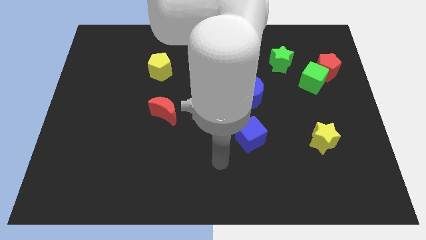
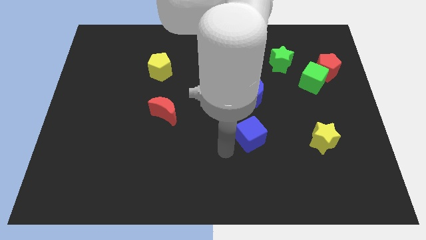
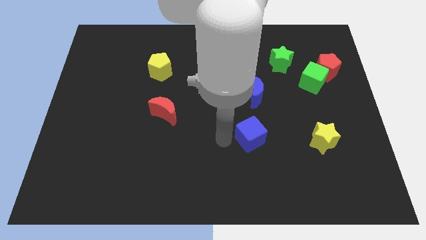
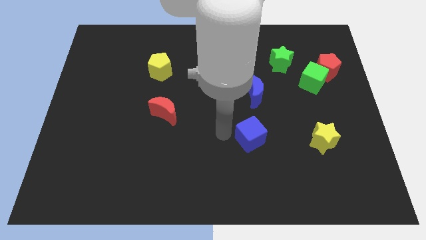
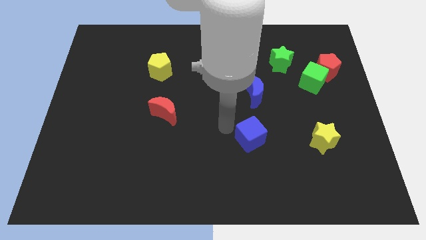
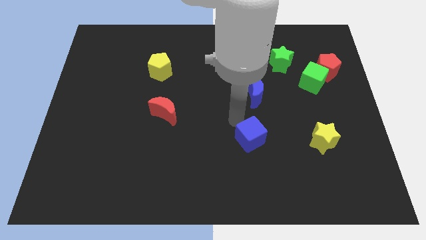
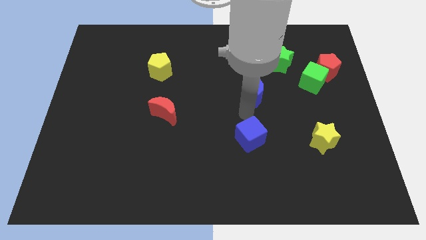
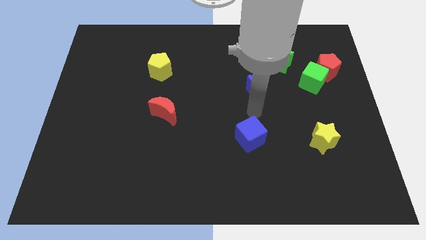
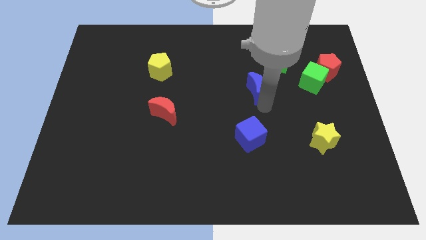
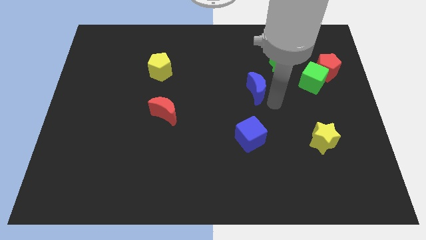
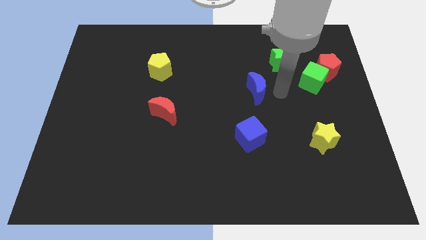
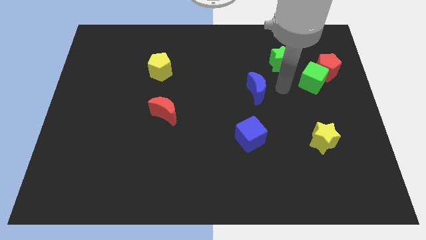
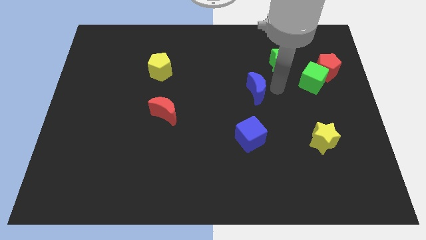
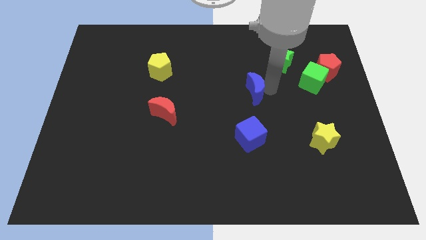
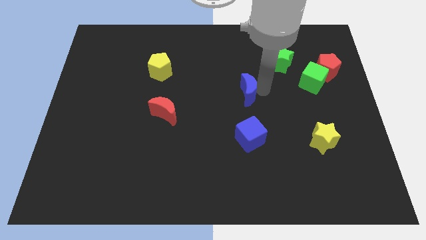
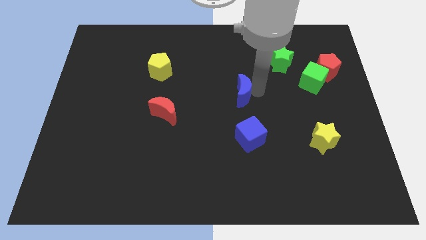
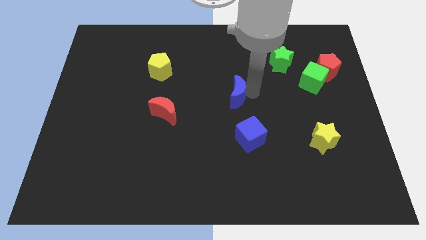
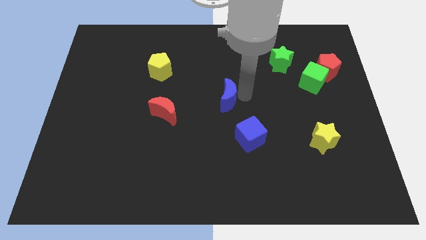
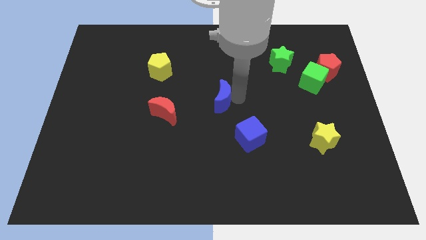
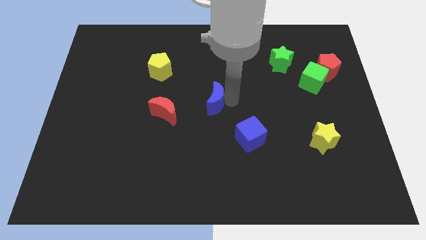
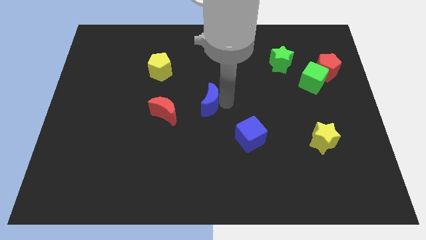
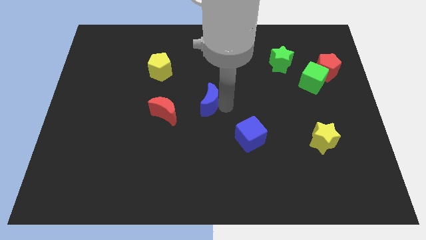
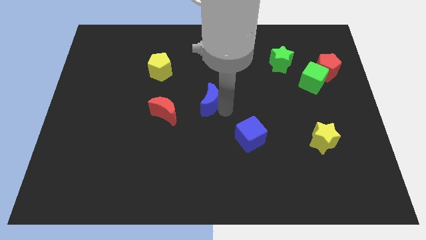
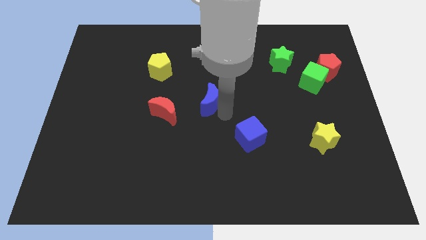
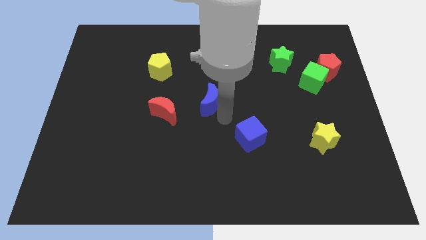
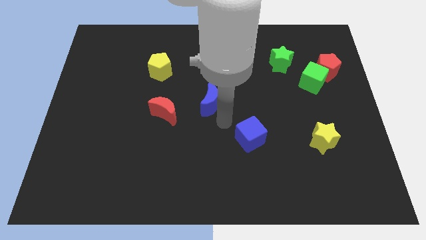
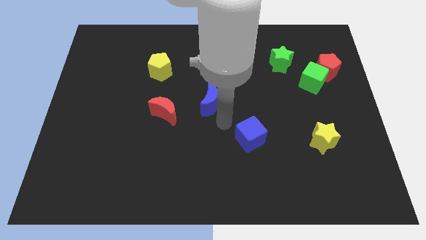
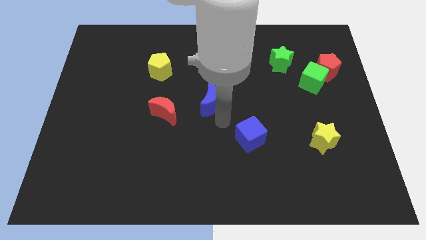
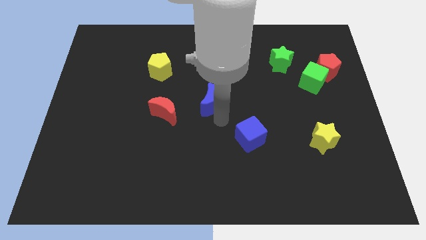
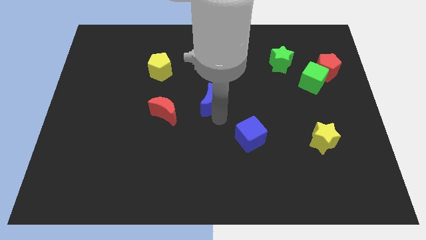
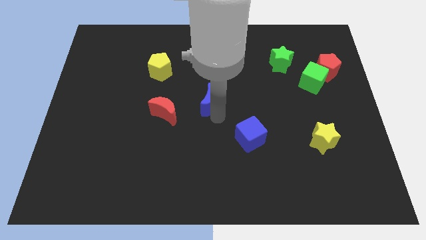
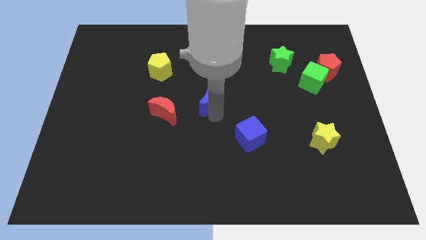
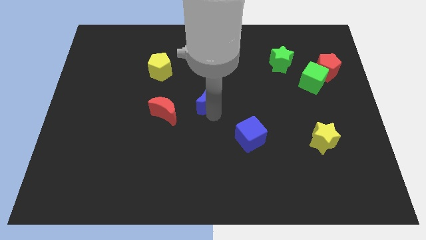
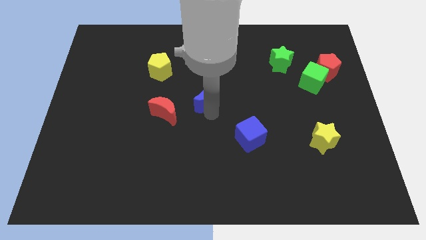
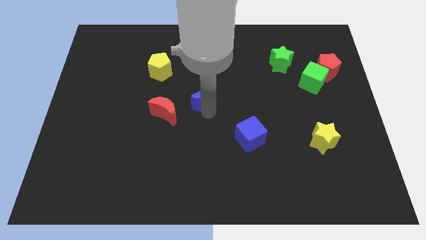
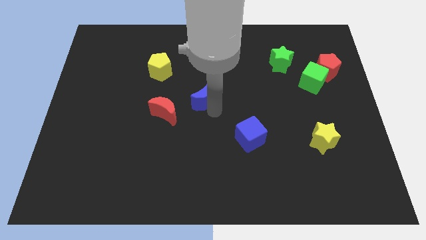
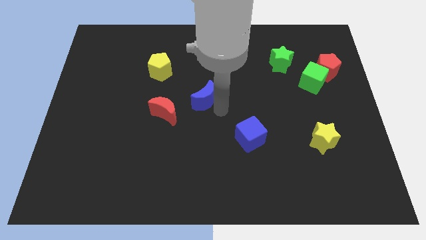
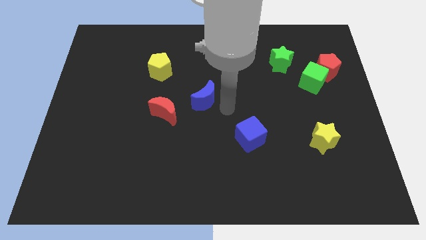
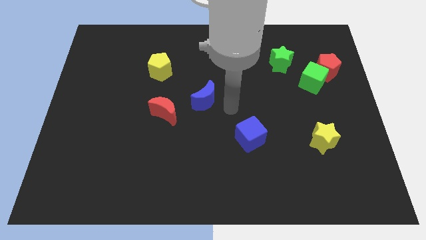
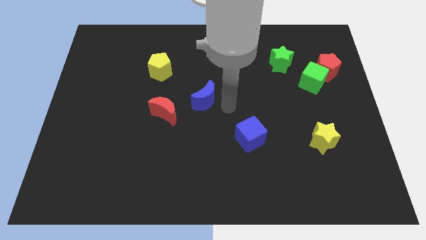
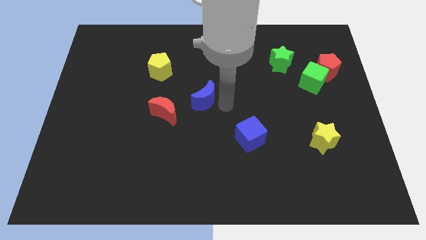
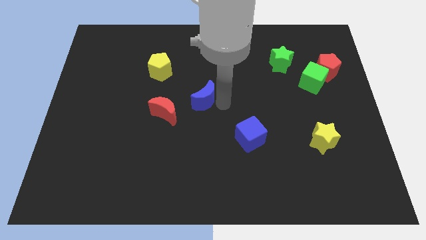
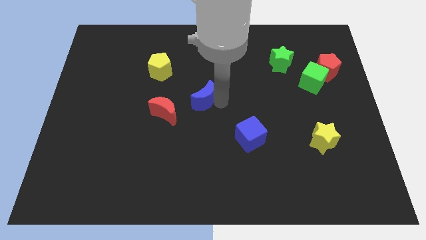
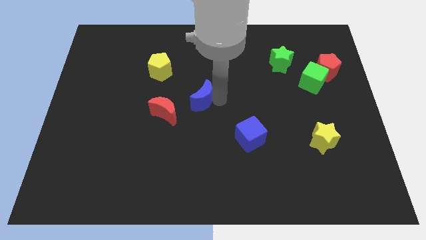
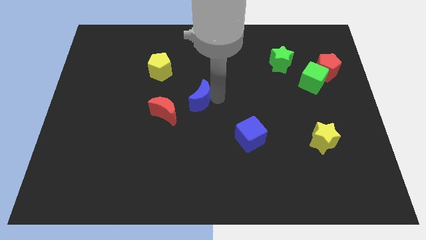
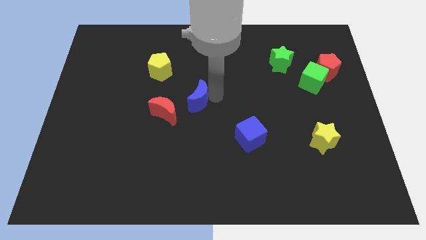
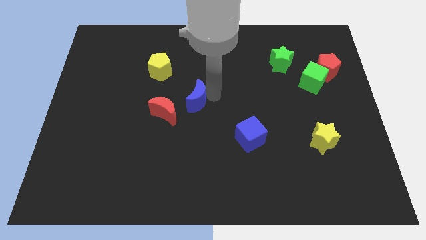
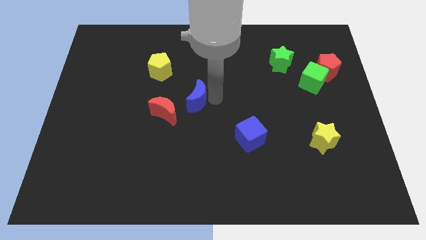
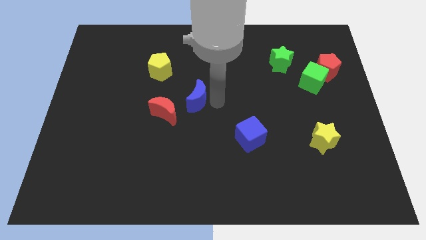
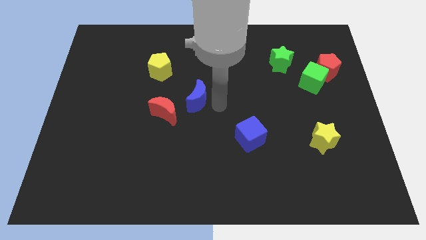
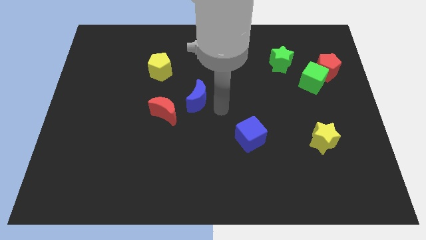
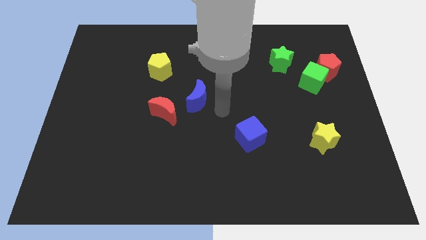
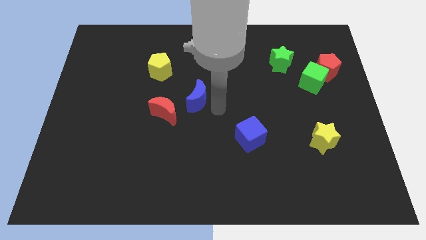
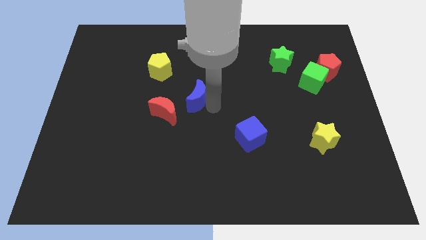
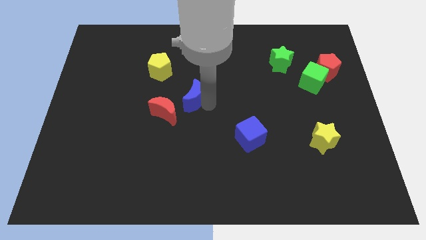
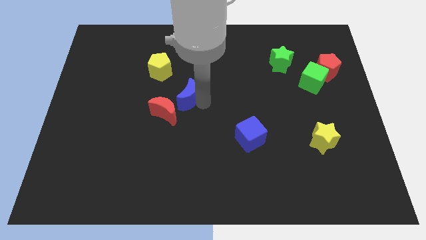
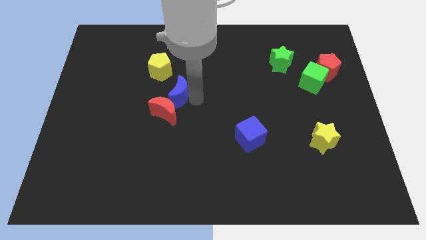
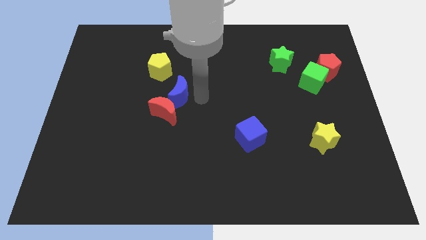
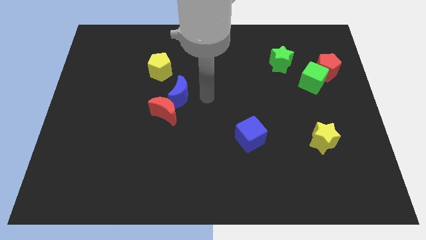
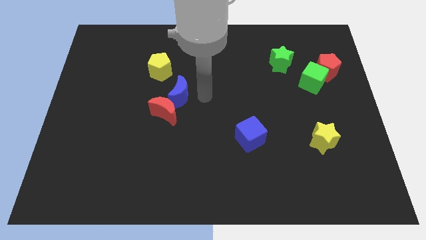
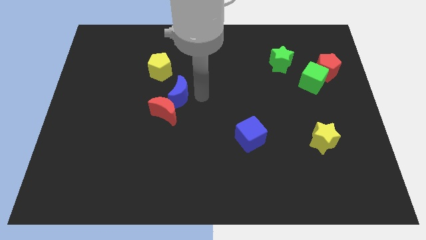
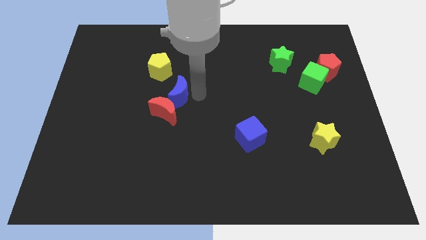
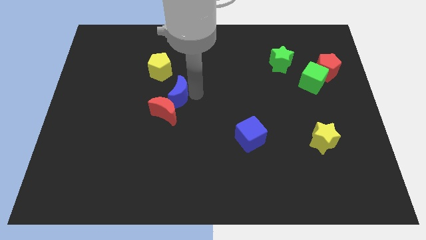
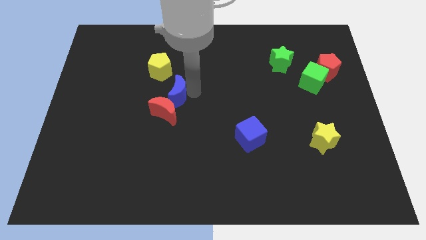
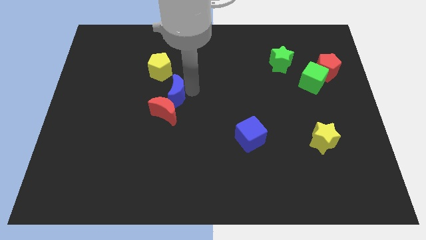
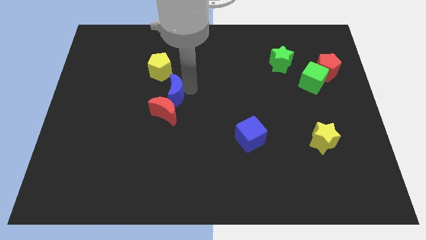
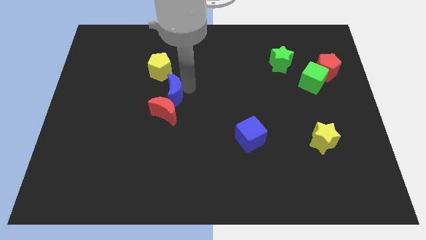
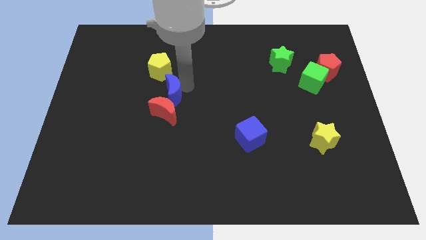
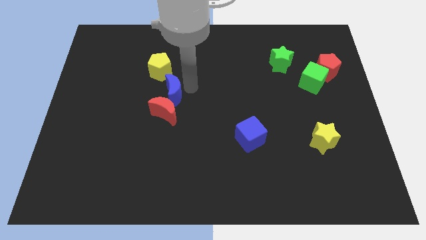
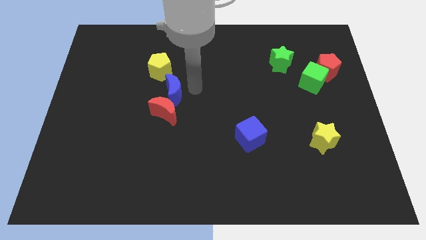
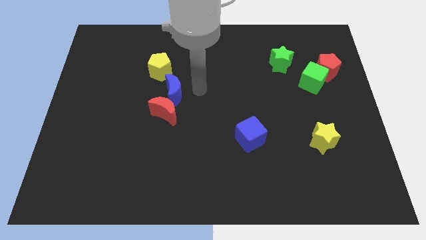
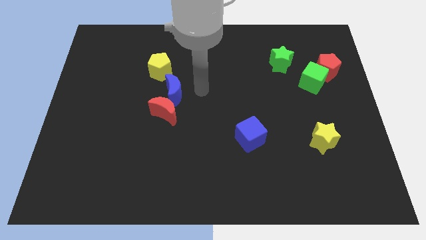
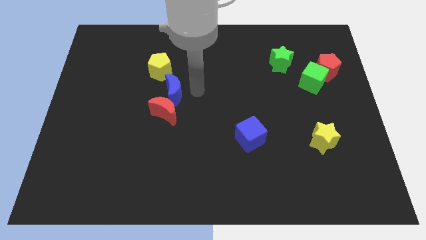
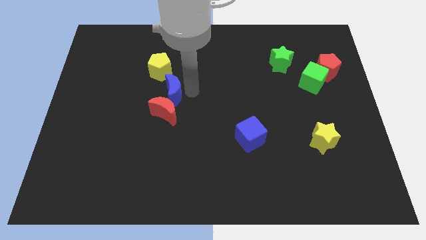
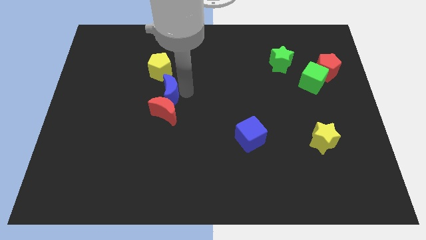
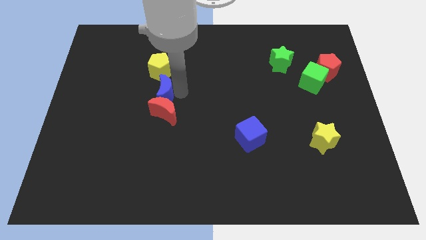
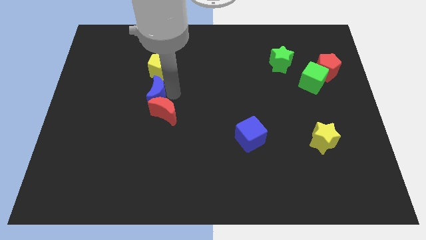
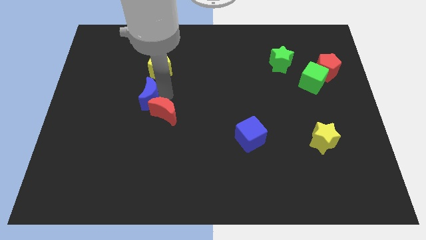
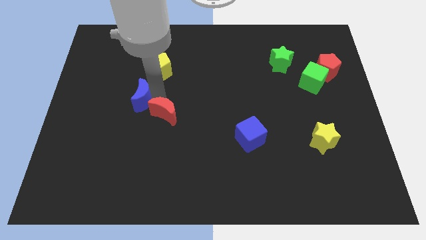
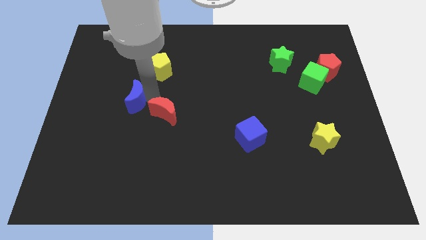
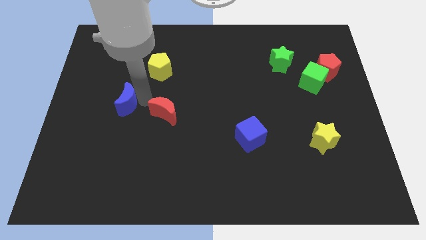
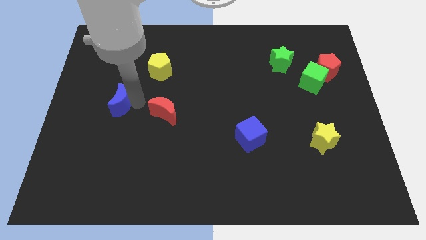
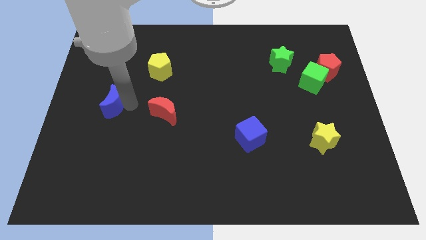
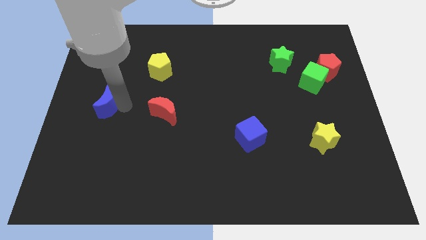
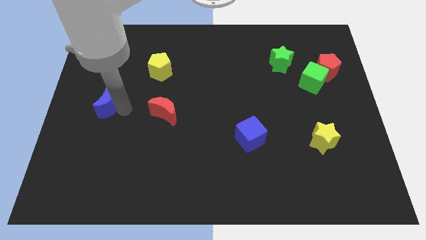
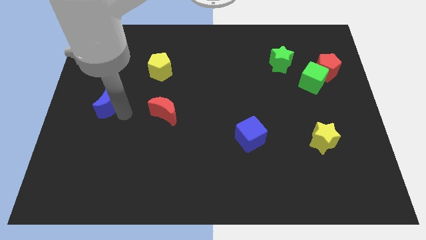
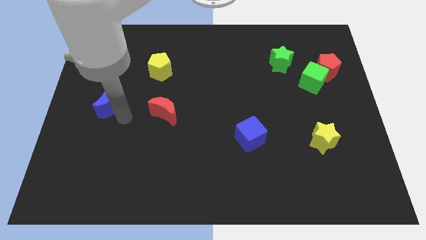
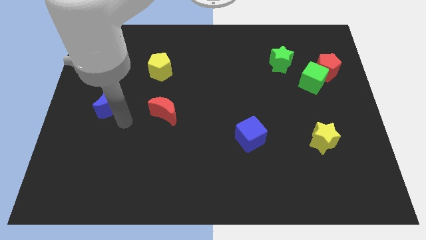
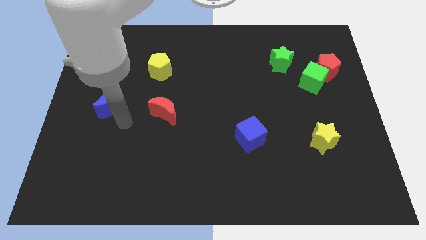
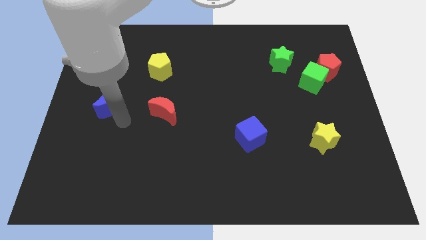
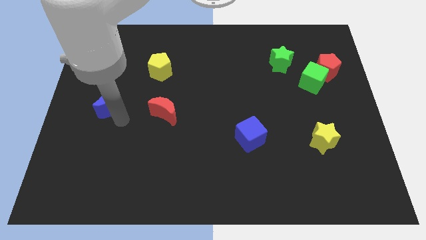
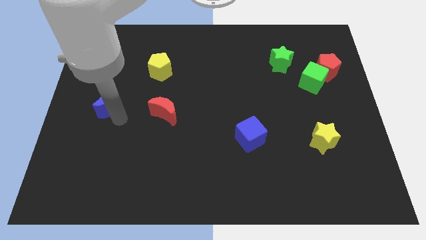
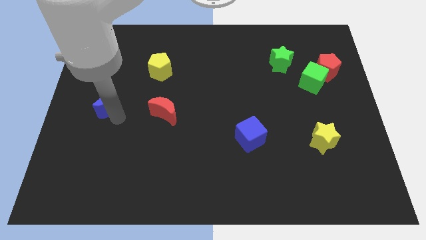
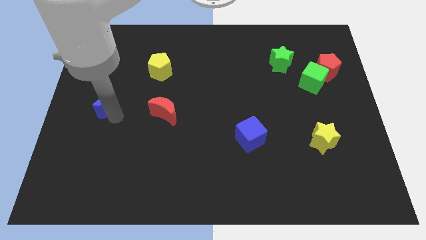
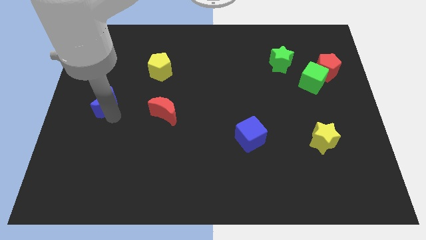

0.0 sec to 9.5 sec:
push the blue moon to the left side of the board
